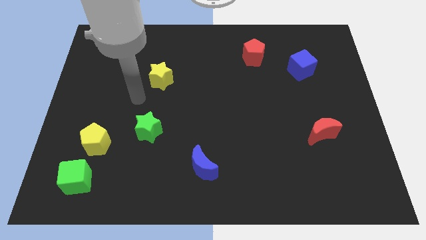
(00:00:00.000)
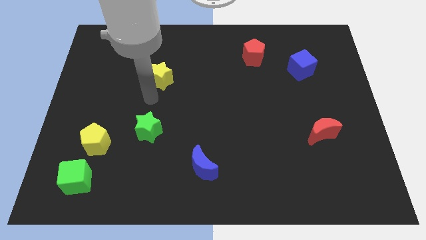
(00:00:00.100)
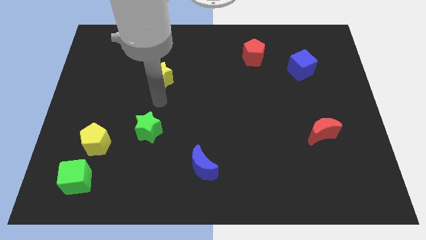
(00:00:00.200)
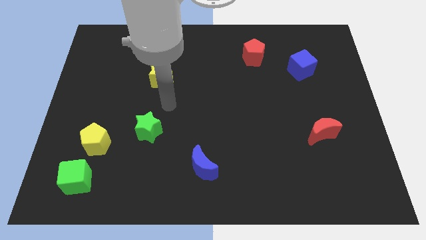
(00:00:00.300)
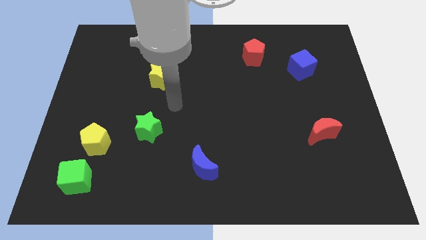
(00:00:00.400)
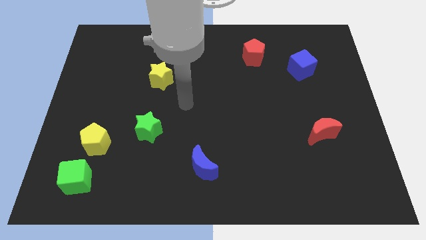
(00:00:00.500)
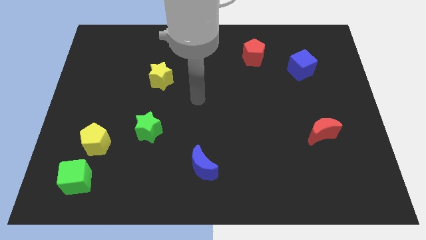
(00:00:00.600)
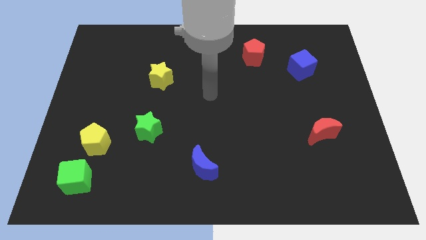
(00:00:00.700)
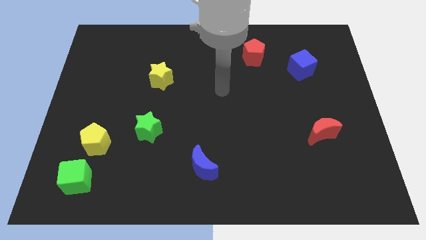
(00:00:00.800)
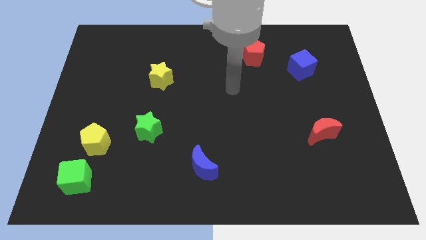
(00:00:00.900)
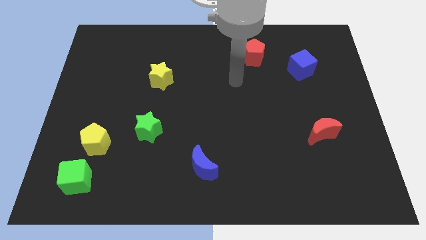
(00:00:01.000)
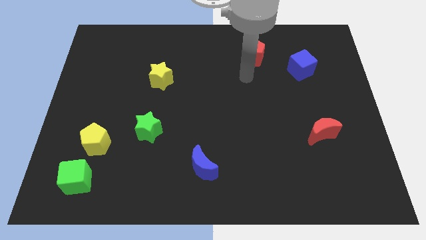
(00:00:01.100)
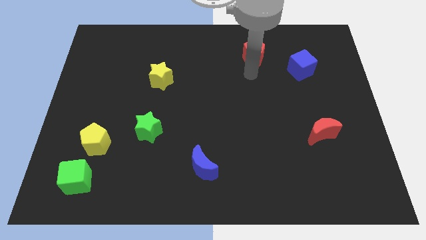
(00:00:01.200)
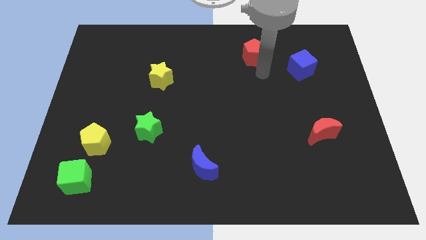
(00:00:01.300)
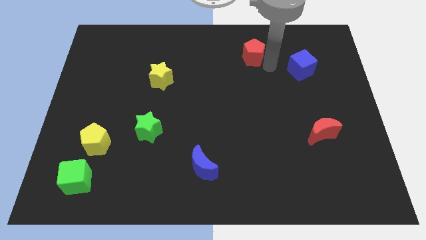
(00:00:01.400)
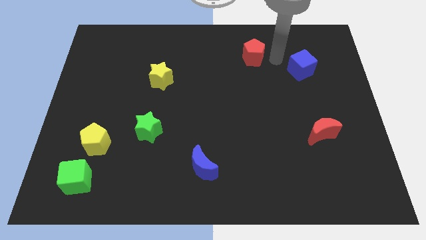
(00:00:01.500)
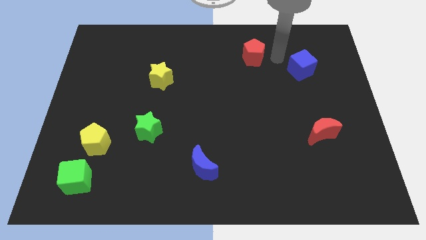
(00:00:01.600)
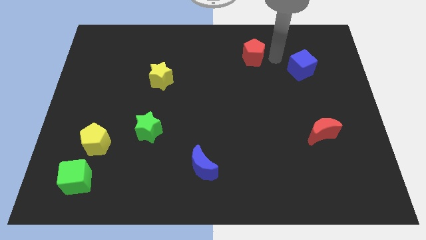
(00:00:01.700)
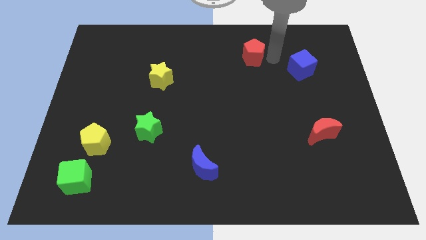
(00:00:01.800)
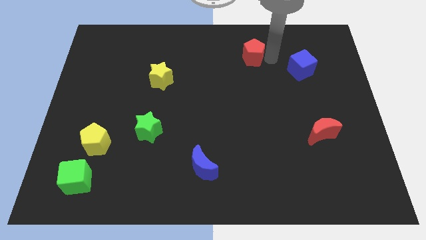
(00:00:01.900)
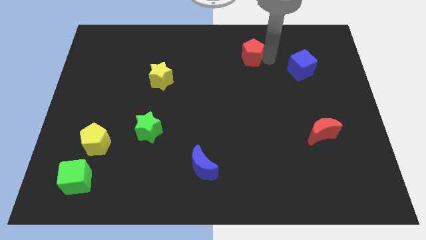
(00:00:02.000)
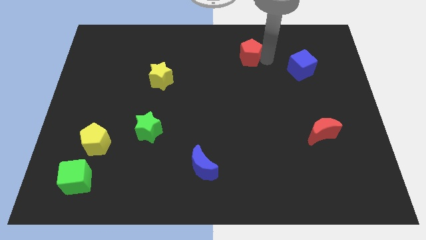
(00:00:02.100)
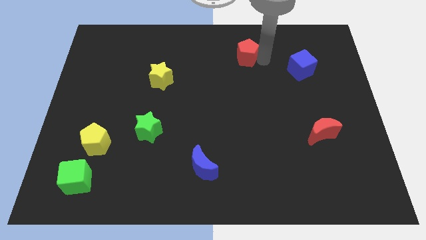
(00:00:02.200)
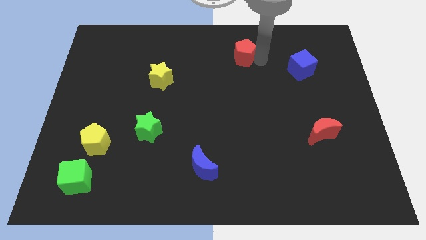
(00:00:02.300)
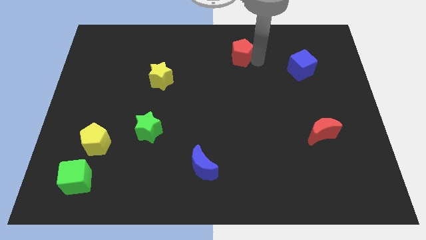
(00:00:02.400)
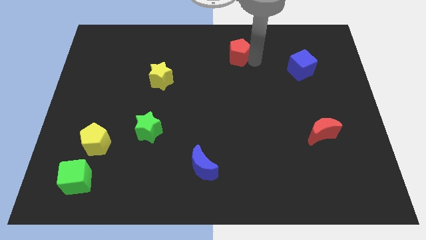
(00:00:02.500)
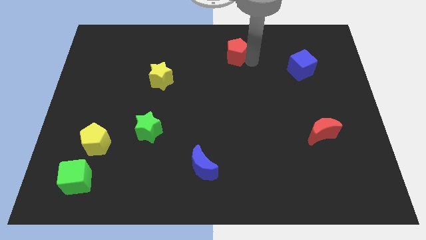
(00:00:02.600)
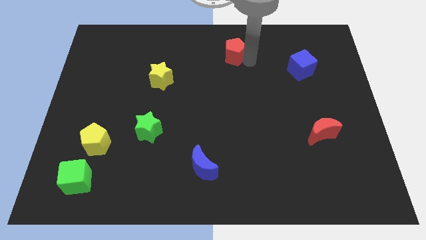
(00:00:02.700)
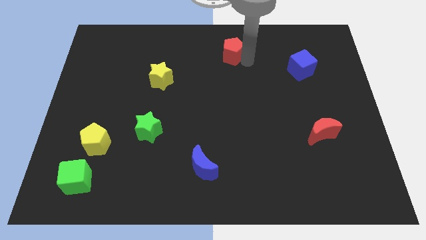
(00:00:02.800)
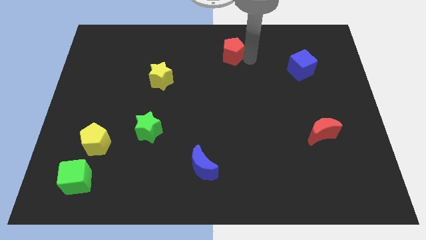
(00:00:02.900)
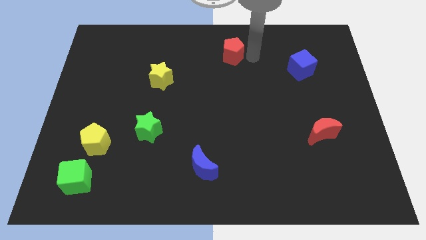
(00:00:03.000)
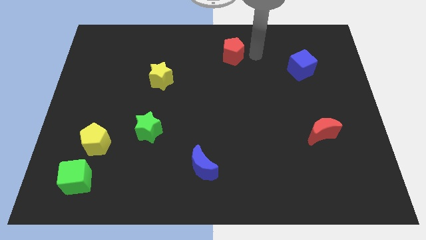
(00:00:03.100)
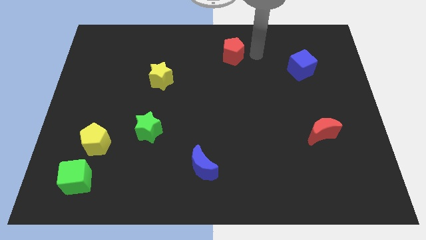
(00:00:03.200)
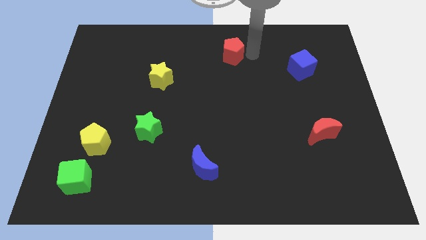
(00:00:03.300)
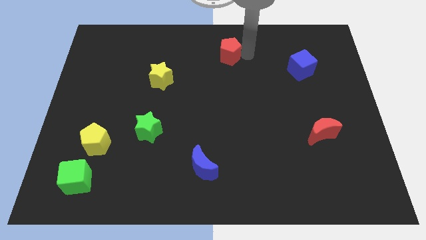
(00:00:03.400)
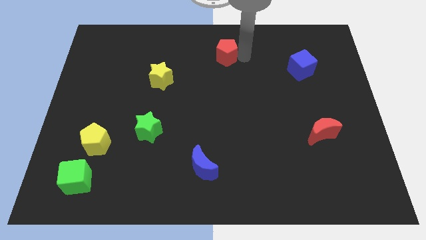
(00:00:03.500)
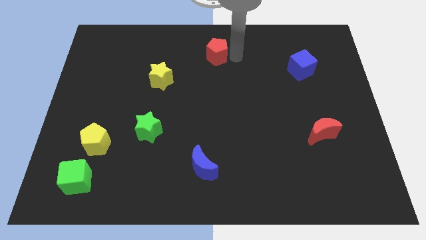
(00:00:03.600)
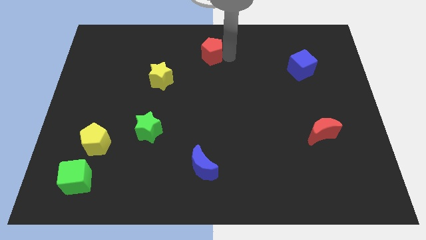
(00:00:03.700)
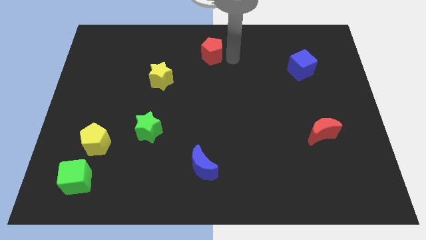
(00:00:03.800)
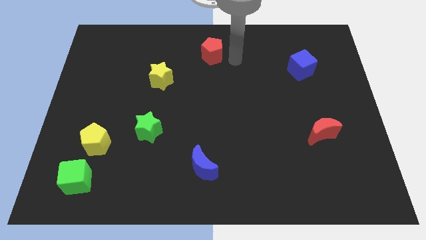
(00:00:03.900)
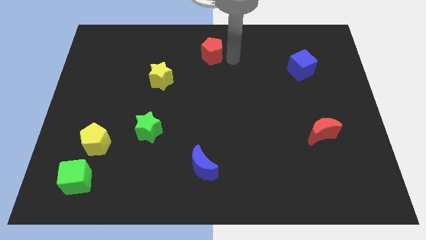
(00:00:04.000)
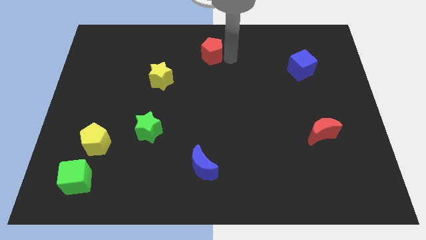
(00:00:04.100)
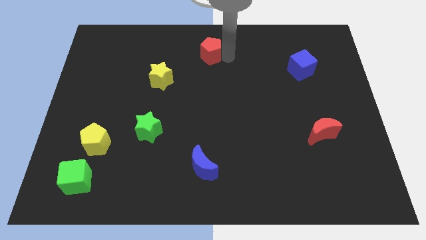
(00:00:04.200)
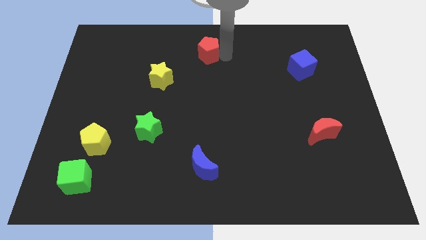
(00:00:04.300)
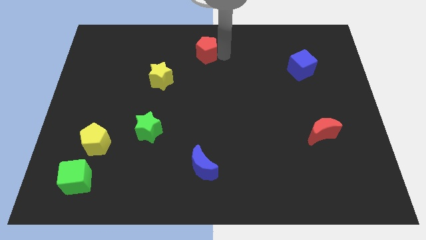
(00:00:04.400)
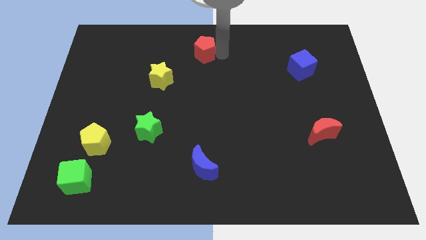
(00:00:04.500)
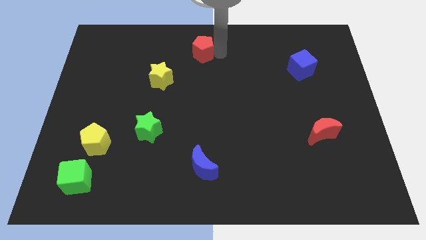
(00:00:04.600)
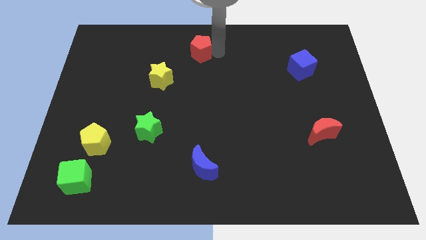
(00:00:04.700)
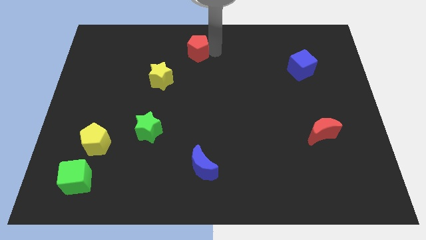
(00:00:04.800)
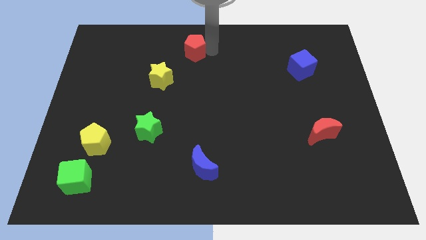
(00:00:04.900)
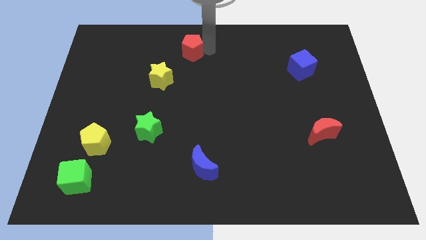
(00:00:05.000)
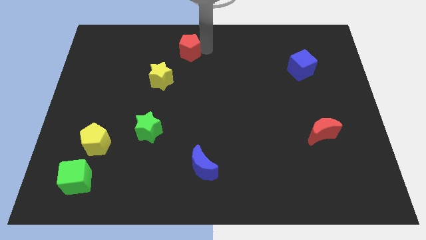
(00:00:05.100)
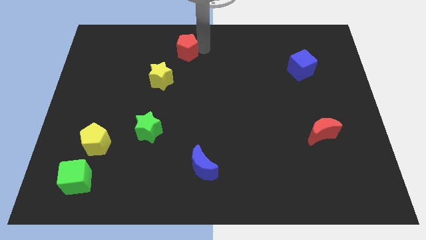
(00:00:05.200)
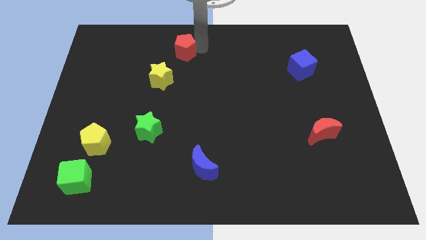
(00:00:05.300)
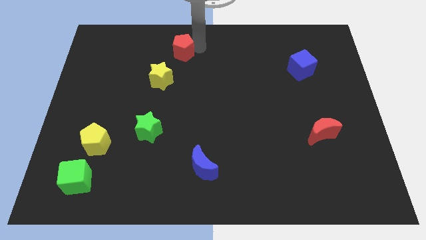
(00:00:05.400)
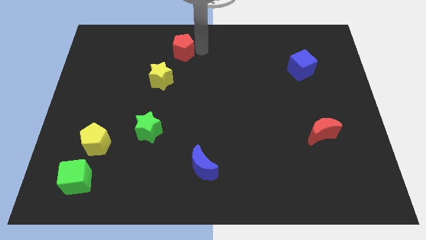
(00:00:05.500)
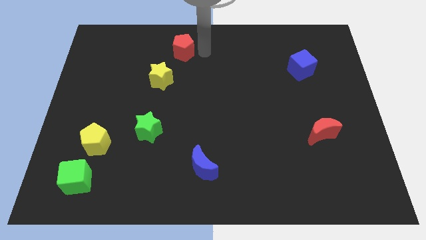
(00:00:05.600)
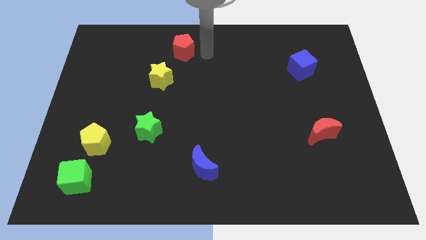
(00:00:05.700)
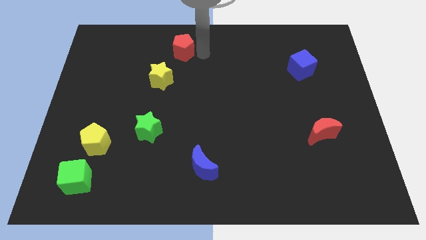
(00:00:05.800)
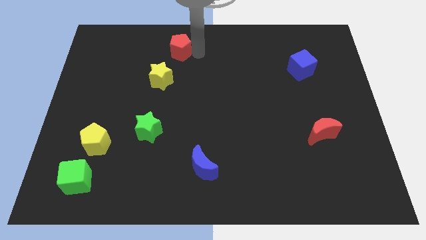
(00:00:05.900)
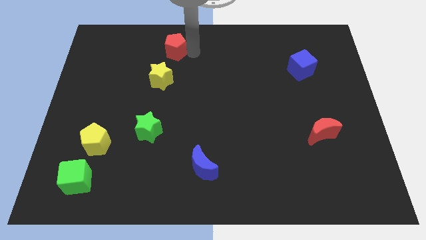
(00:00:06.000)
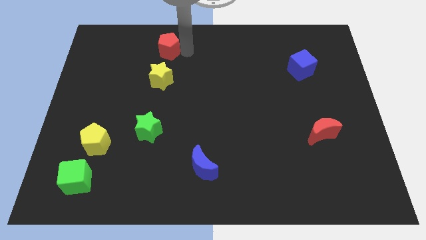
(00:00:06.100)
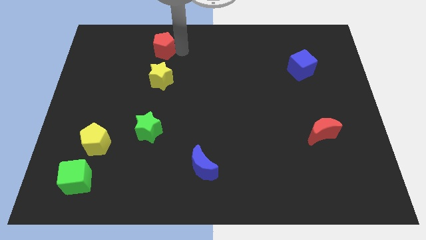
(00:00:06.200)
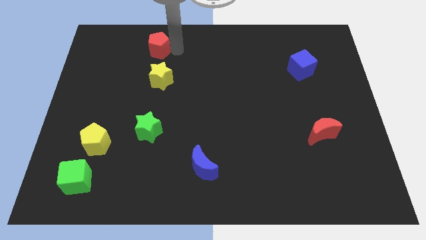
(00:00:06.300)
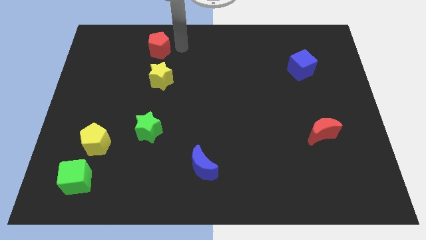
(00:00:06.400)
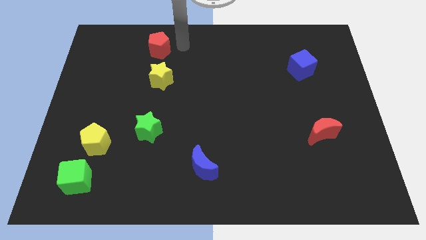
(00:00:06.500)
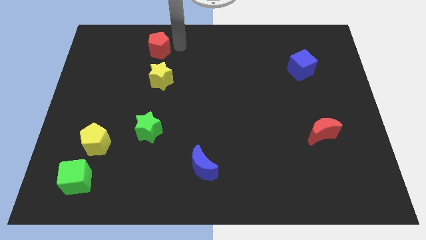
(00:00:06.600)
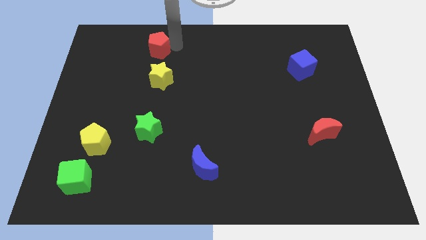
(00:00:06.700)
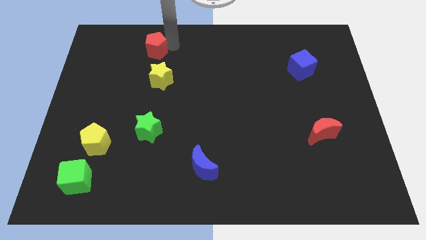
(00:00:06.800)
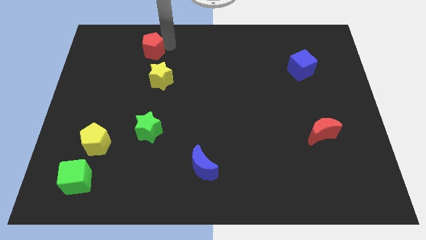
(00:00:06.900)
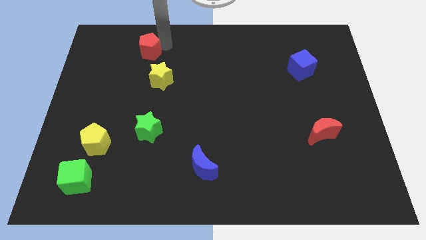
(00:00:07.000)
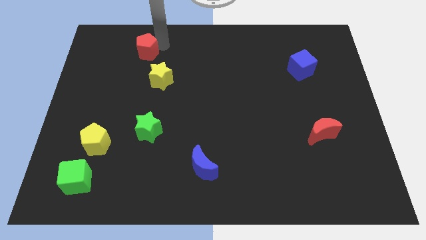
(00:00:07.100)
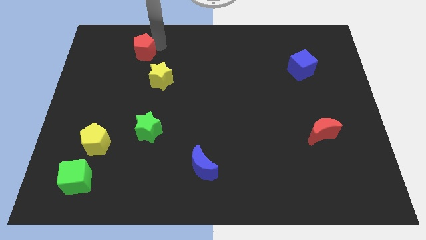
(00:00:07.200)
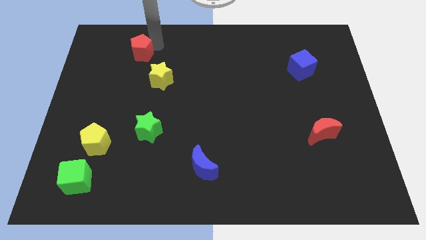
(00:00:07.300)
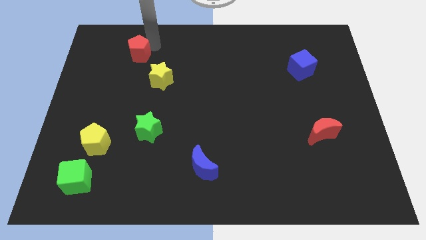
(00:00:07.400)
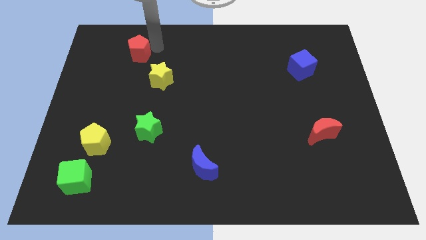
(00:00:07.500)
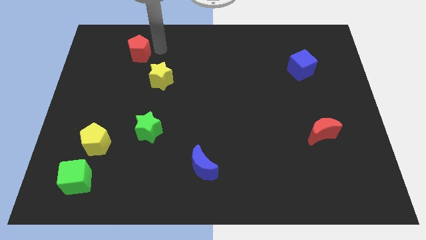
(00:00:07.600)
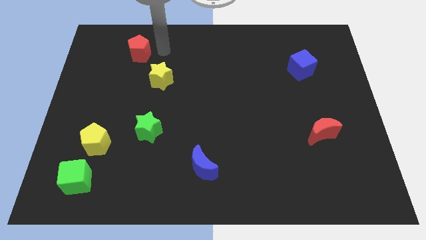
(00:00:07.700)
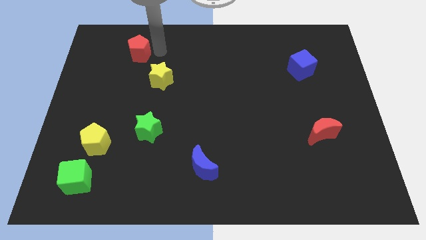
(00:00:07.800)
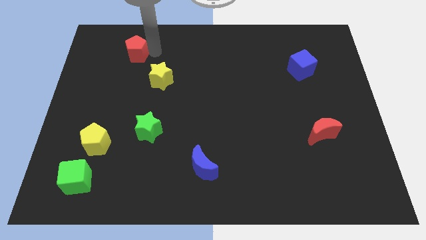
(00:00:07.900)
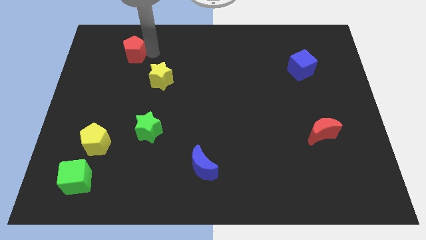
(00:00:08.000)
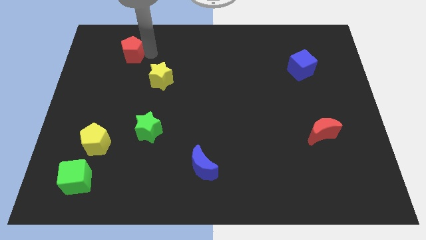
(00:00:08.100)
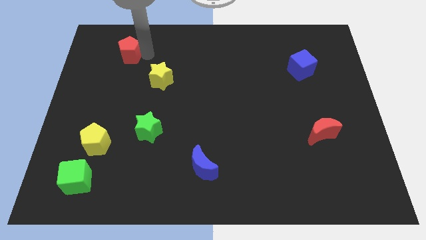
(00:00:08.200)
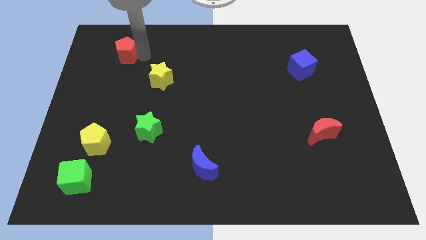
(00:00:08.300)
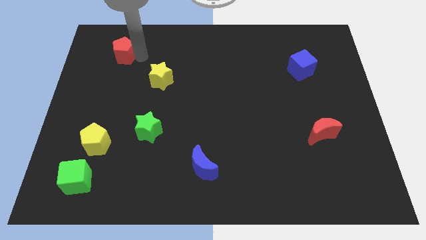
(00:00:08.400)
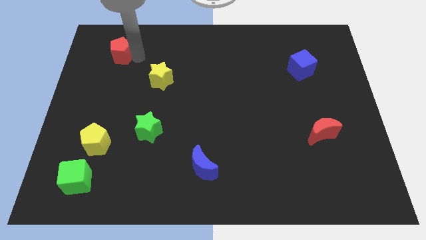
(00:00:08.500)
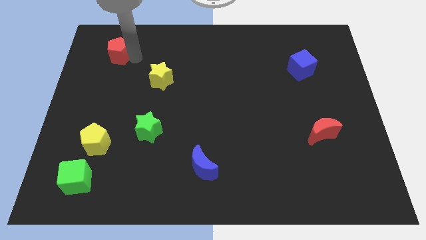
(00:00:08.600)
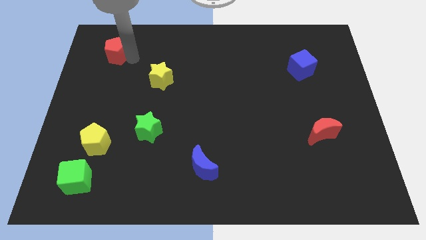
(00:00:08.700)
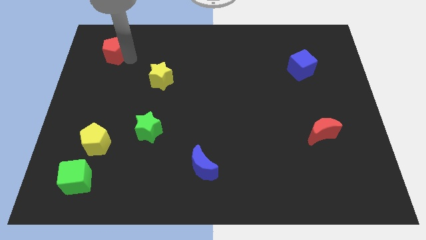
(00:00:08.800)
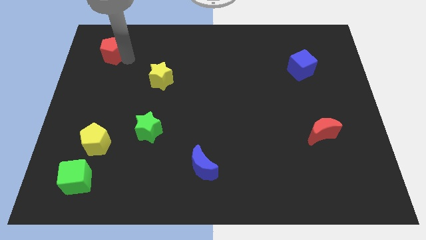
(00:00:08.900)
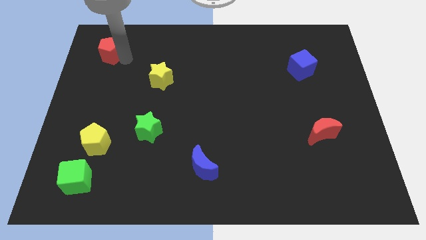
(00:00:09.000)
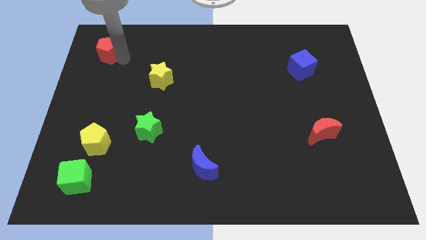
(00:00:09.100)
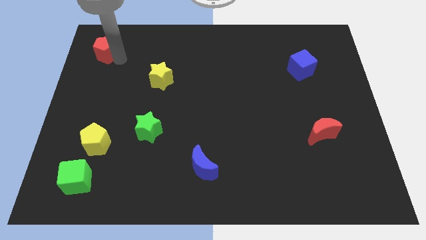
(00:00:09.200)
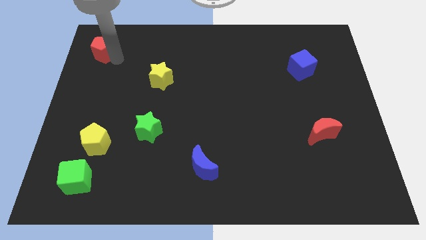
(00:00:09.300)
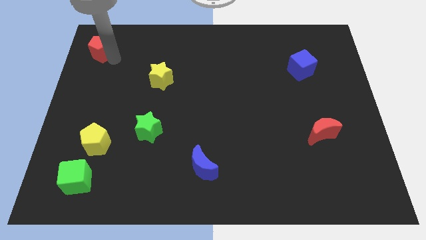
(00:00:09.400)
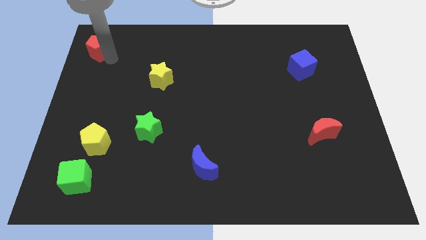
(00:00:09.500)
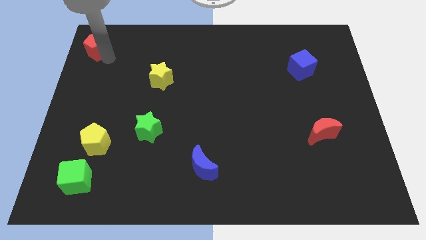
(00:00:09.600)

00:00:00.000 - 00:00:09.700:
move the red pentagon to the top left of the board
